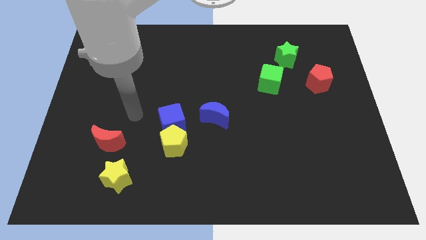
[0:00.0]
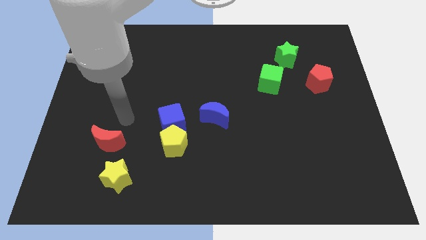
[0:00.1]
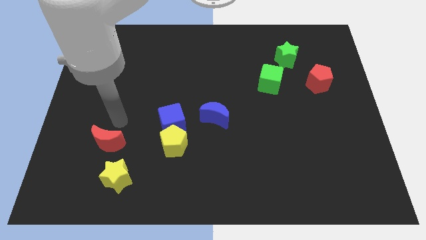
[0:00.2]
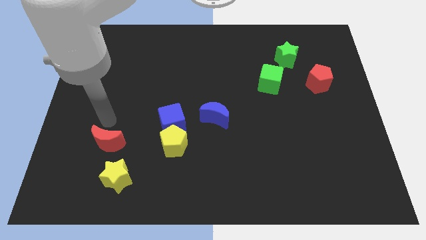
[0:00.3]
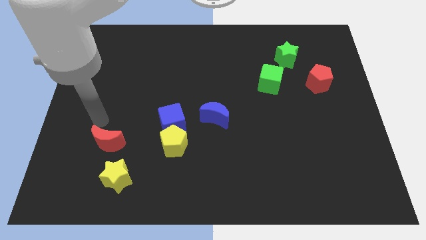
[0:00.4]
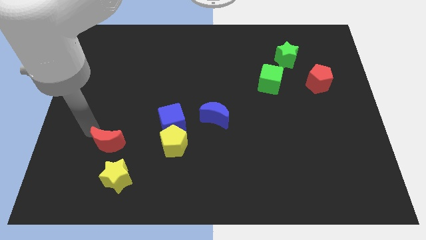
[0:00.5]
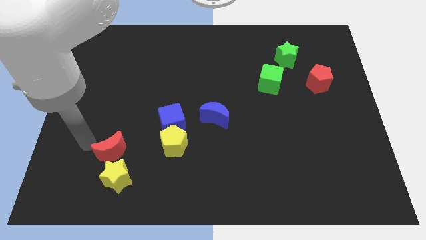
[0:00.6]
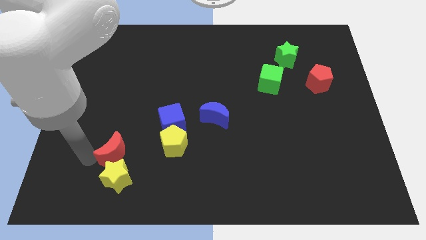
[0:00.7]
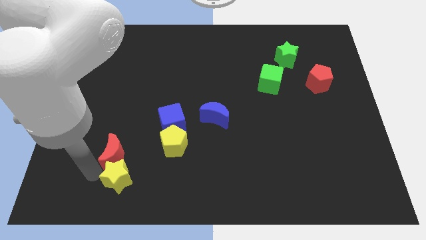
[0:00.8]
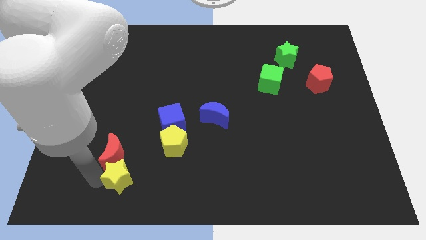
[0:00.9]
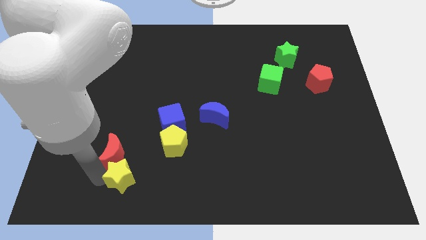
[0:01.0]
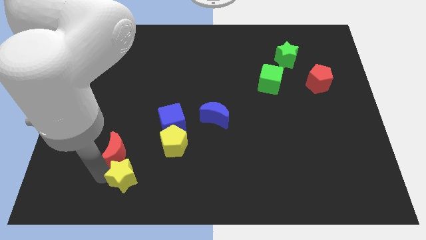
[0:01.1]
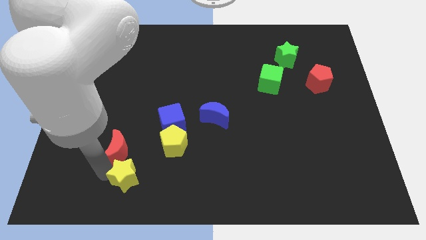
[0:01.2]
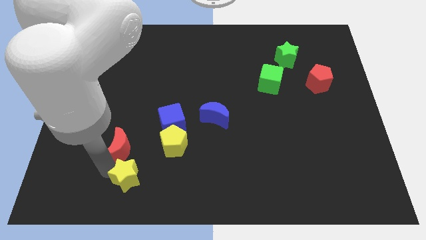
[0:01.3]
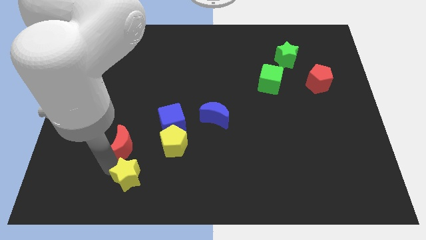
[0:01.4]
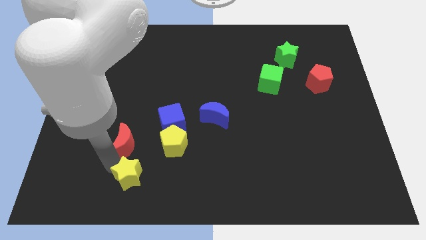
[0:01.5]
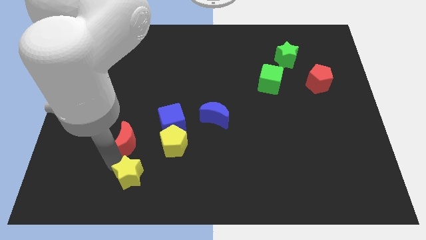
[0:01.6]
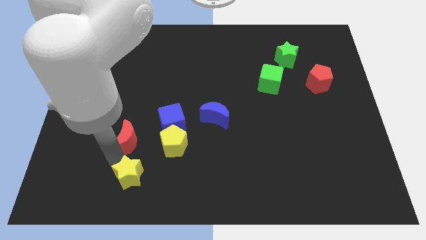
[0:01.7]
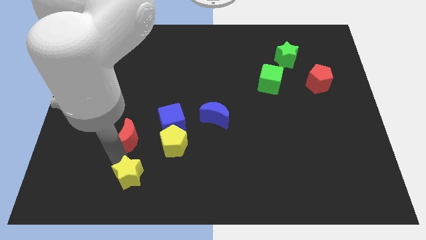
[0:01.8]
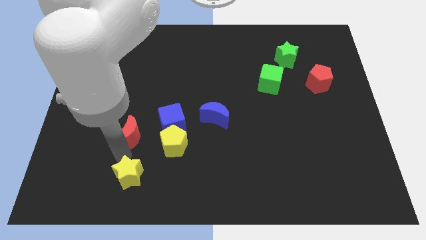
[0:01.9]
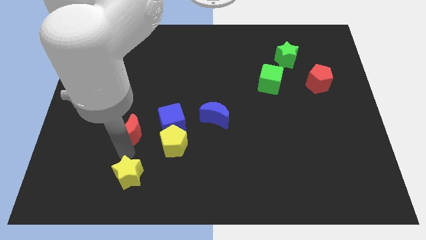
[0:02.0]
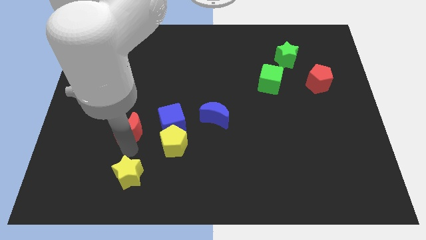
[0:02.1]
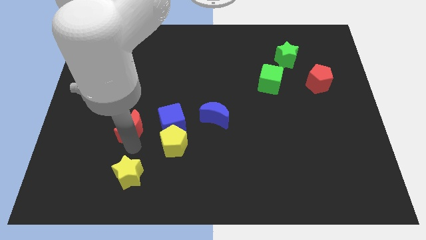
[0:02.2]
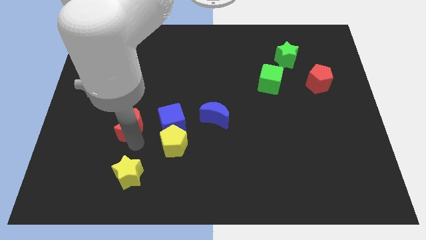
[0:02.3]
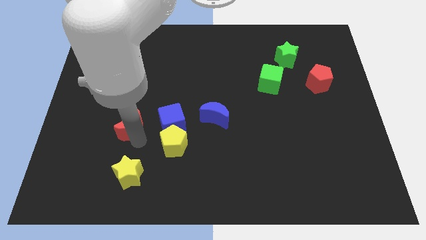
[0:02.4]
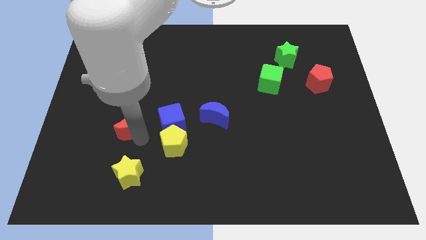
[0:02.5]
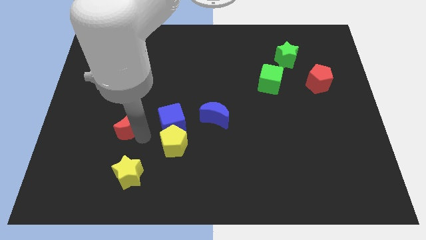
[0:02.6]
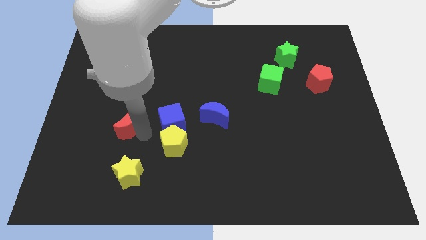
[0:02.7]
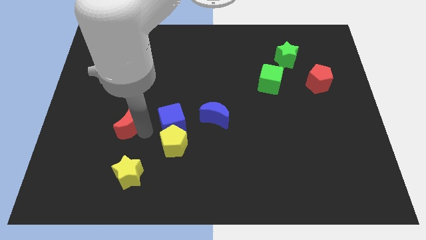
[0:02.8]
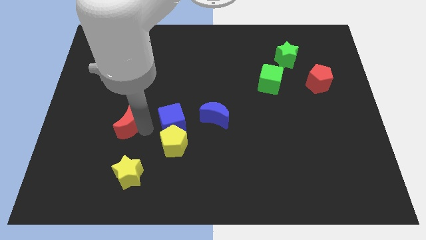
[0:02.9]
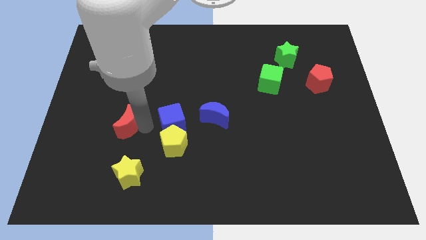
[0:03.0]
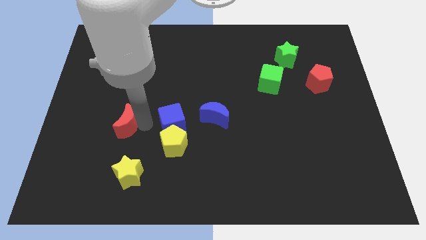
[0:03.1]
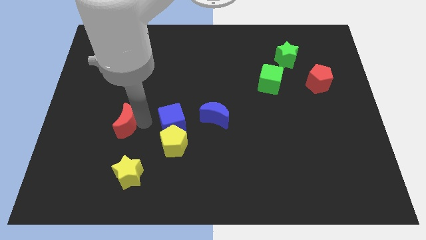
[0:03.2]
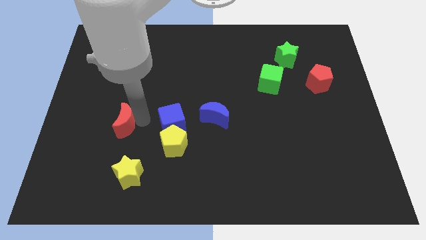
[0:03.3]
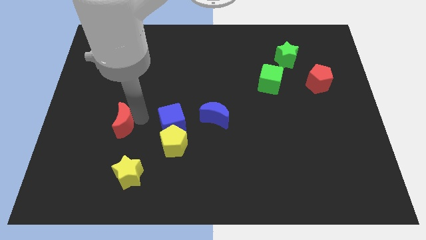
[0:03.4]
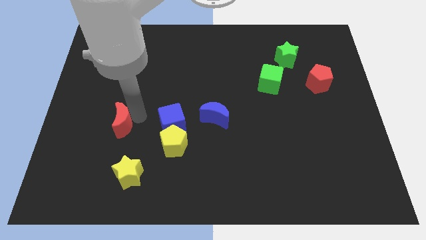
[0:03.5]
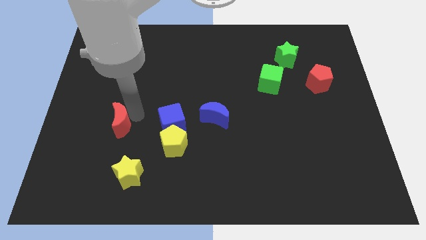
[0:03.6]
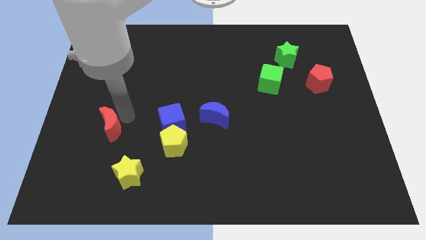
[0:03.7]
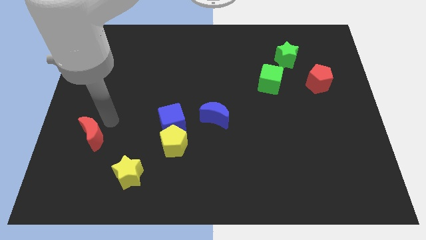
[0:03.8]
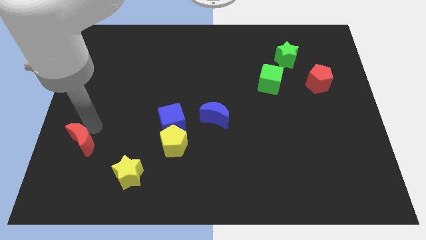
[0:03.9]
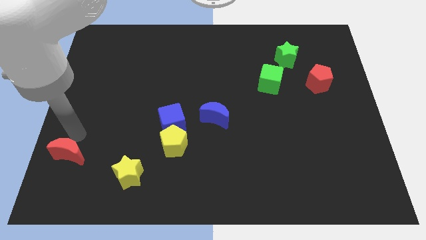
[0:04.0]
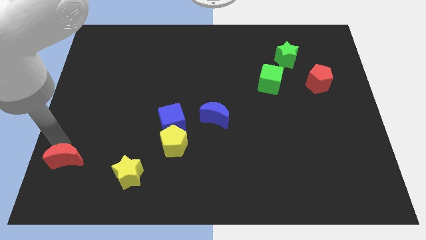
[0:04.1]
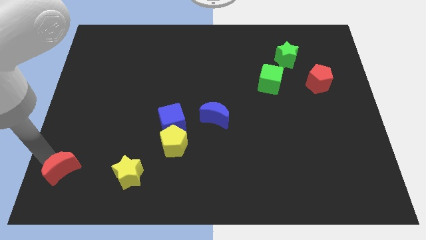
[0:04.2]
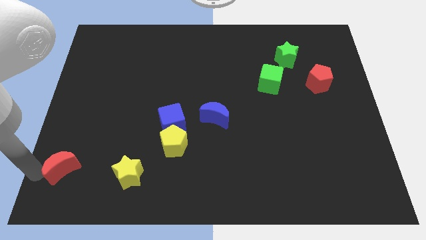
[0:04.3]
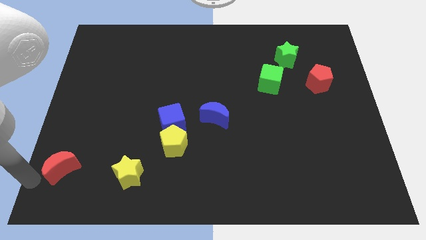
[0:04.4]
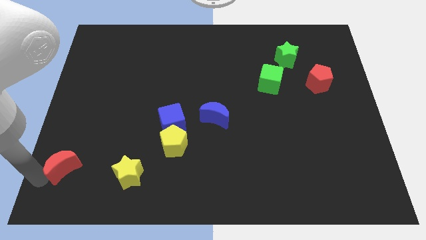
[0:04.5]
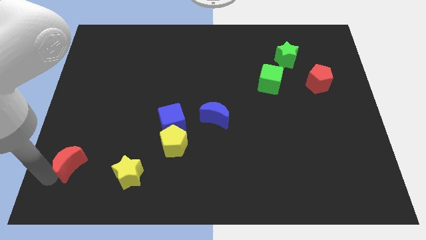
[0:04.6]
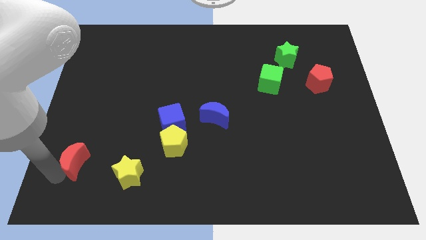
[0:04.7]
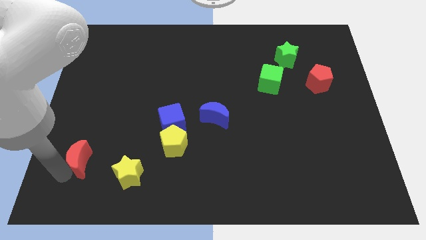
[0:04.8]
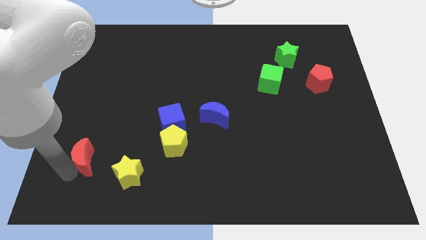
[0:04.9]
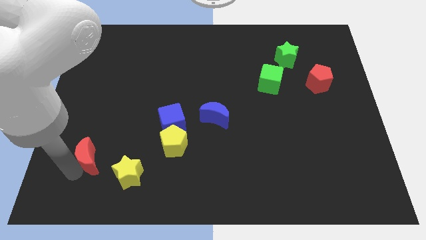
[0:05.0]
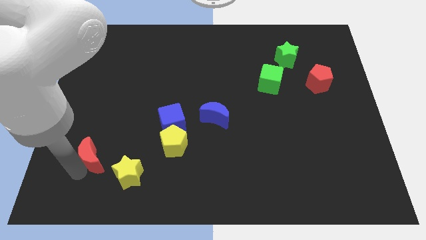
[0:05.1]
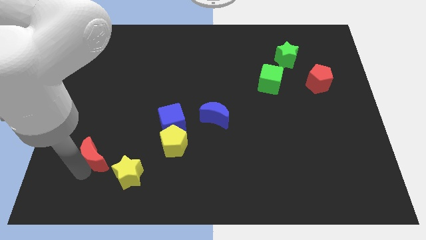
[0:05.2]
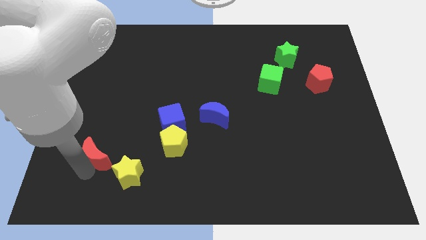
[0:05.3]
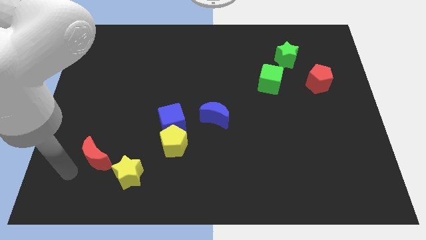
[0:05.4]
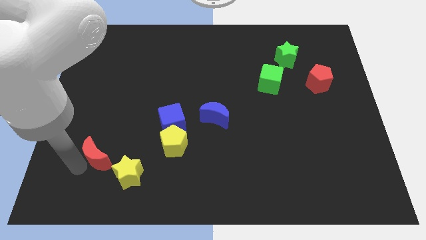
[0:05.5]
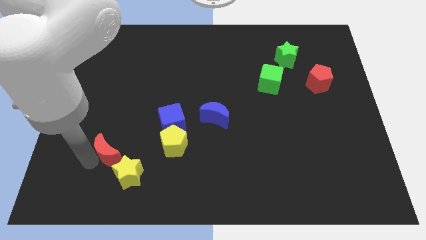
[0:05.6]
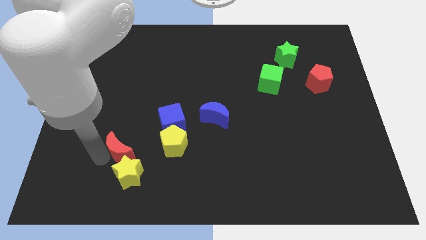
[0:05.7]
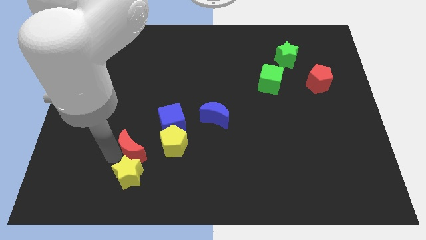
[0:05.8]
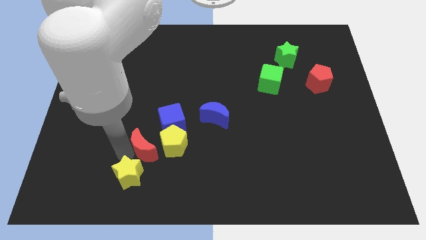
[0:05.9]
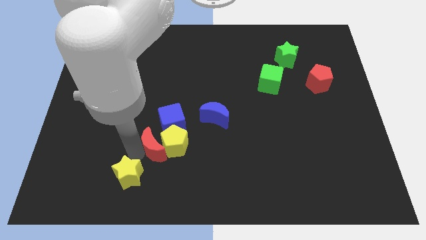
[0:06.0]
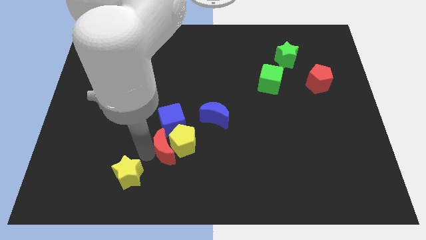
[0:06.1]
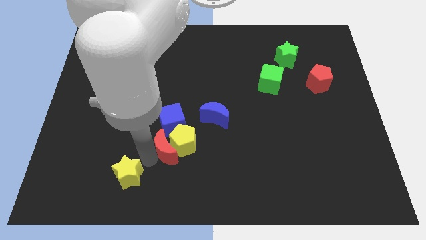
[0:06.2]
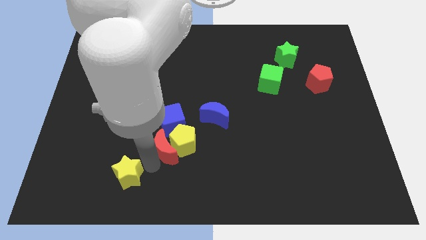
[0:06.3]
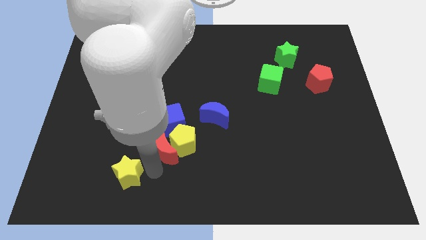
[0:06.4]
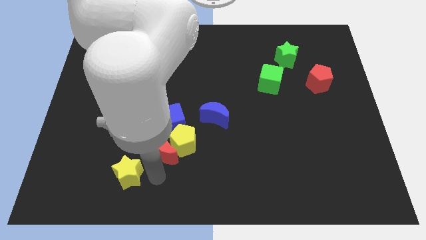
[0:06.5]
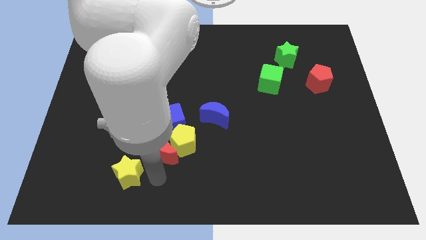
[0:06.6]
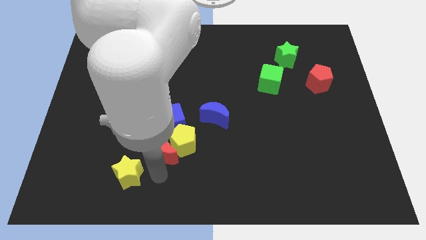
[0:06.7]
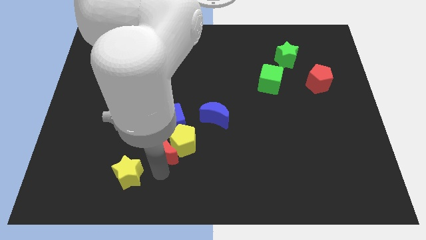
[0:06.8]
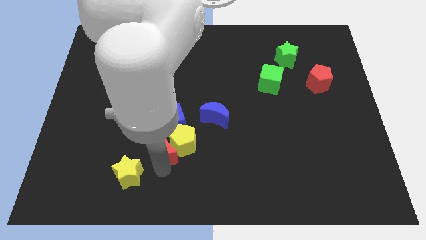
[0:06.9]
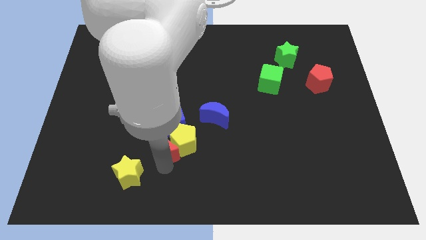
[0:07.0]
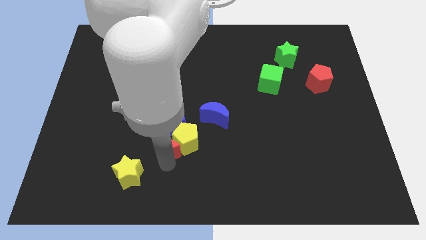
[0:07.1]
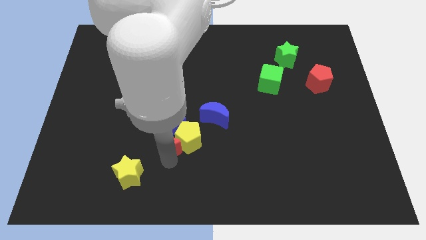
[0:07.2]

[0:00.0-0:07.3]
put the red moon close to the blue cube

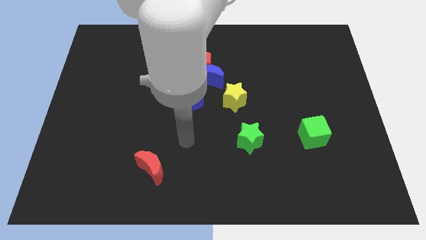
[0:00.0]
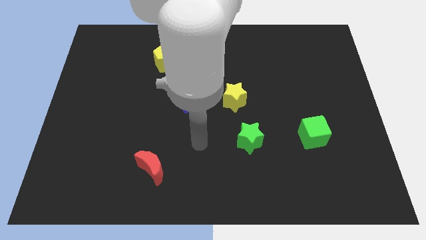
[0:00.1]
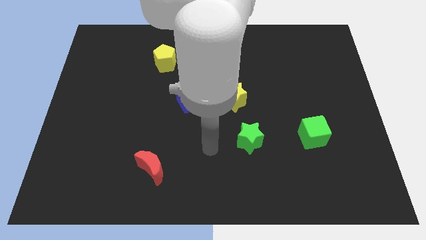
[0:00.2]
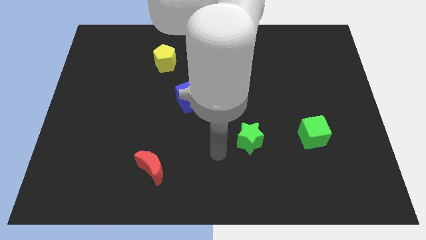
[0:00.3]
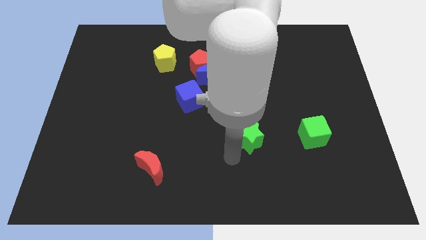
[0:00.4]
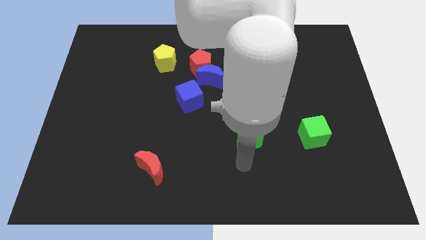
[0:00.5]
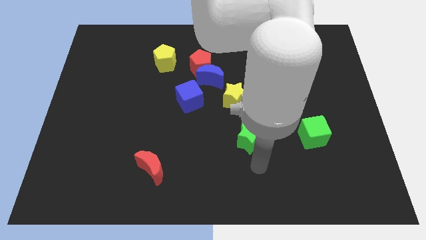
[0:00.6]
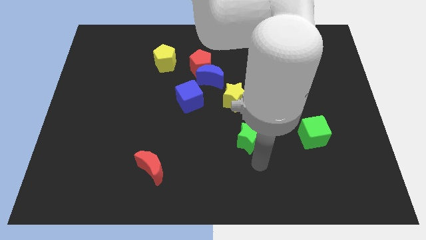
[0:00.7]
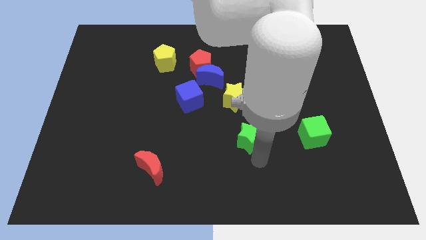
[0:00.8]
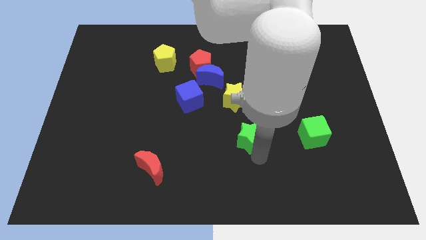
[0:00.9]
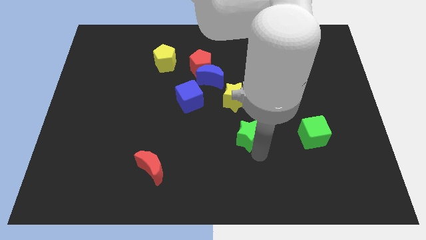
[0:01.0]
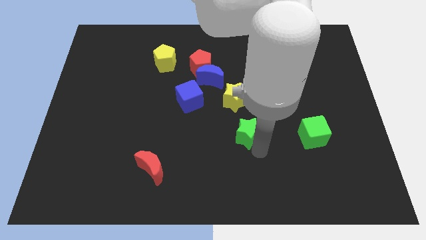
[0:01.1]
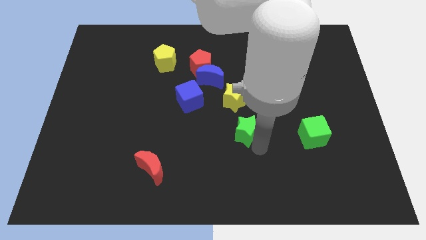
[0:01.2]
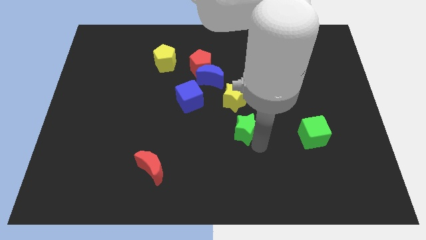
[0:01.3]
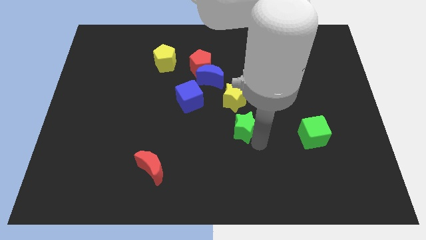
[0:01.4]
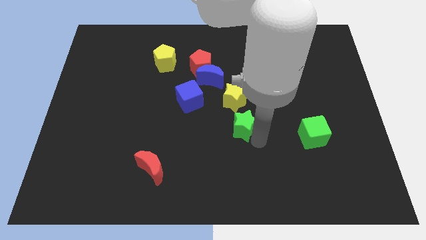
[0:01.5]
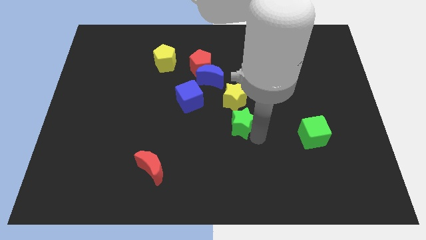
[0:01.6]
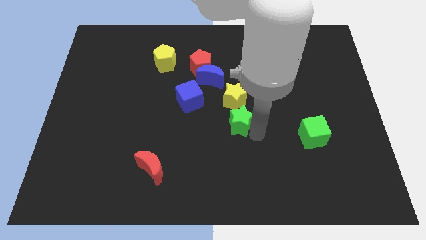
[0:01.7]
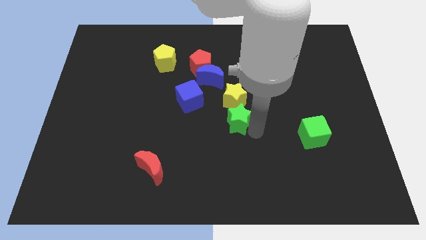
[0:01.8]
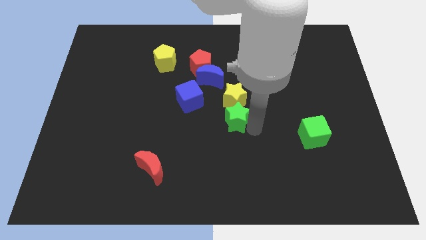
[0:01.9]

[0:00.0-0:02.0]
slide the green star close to the yellow star
